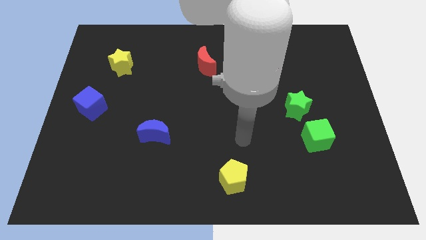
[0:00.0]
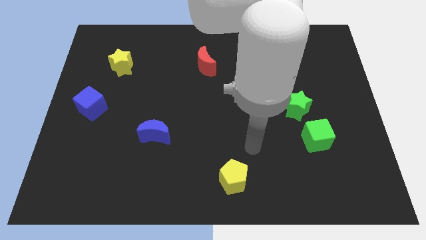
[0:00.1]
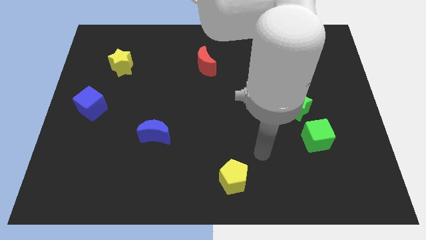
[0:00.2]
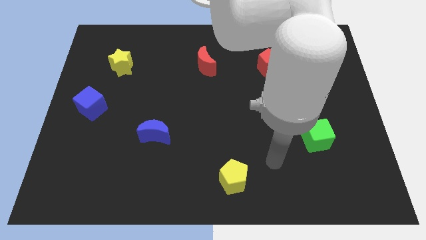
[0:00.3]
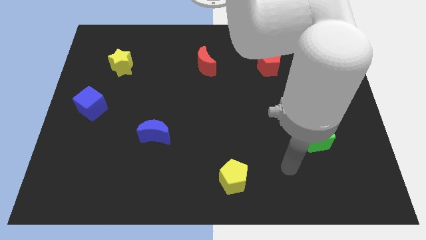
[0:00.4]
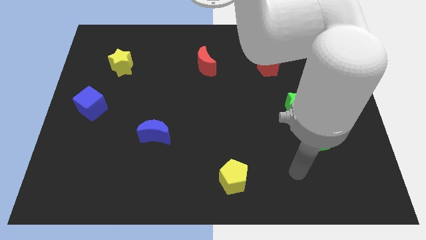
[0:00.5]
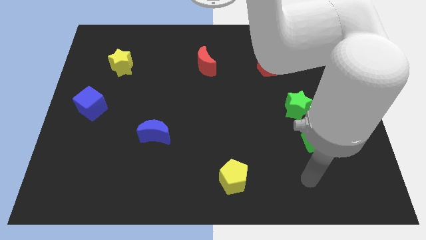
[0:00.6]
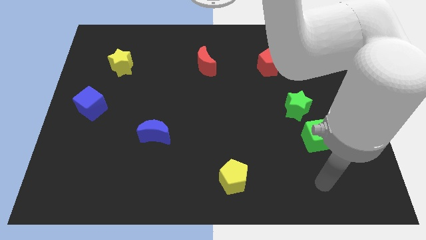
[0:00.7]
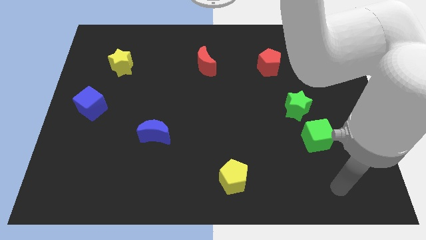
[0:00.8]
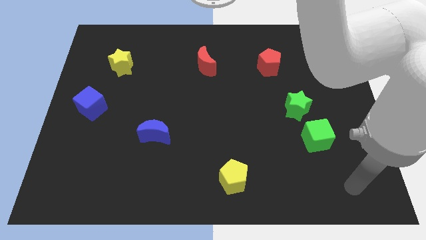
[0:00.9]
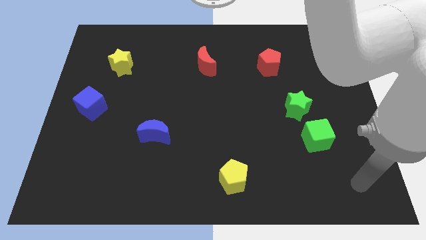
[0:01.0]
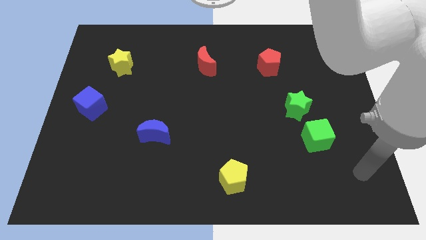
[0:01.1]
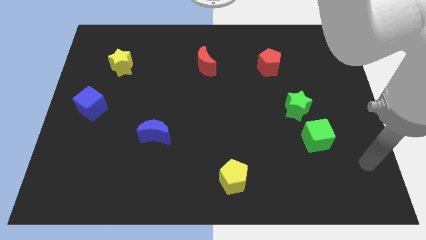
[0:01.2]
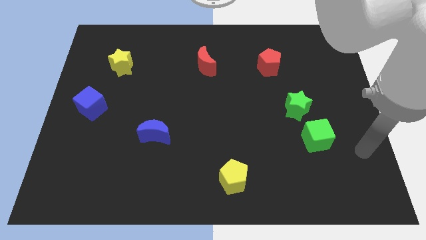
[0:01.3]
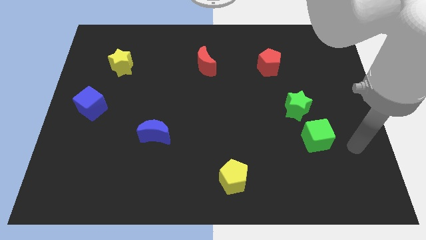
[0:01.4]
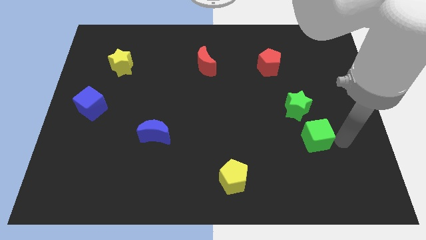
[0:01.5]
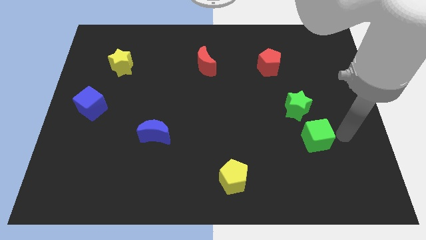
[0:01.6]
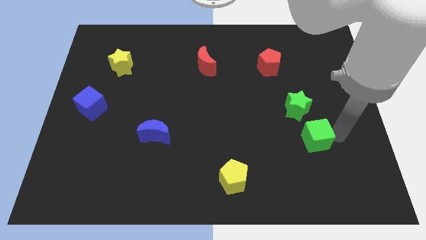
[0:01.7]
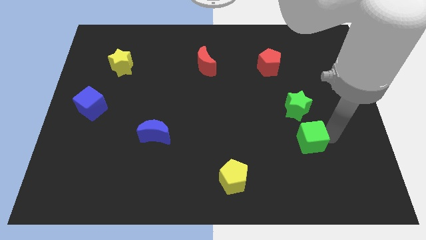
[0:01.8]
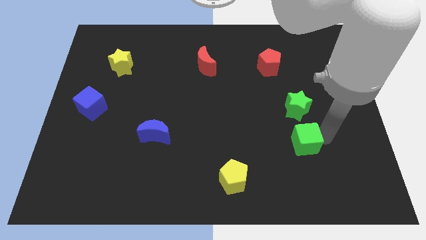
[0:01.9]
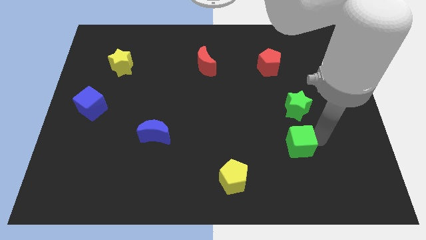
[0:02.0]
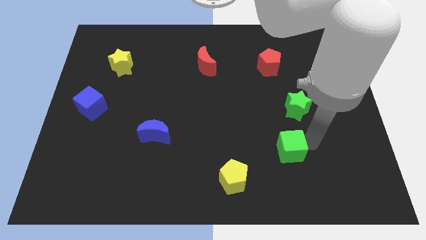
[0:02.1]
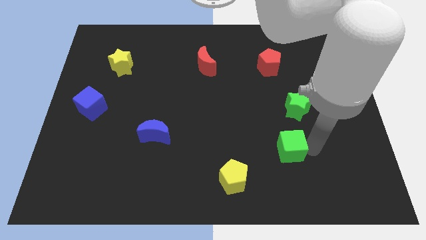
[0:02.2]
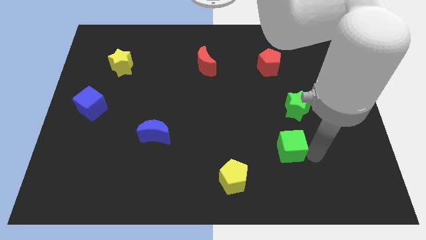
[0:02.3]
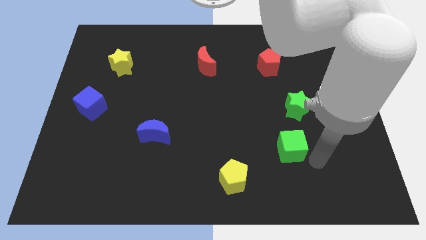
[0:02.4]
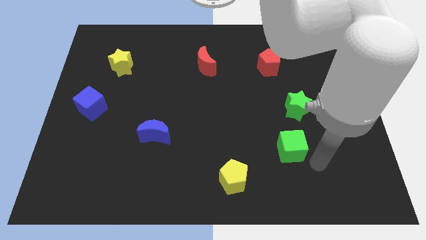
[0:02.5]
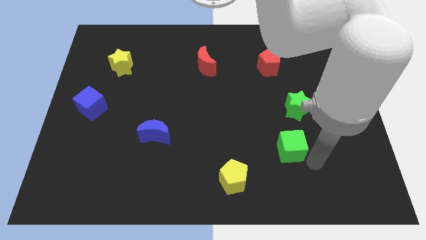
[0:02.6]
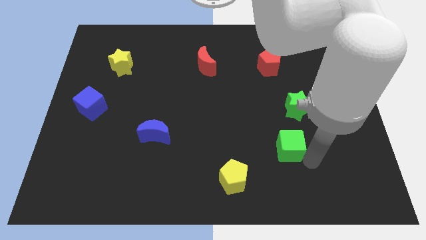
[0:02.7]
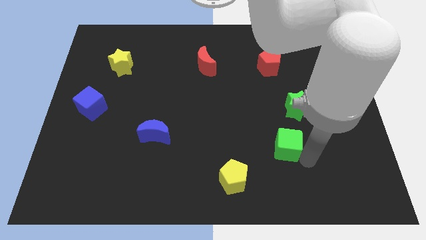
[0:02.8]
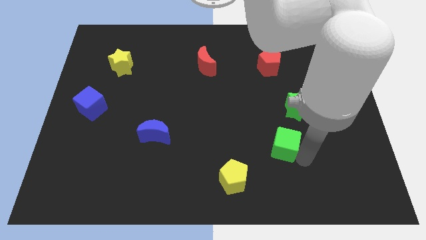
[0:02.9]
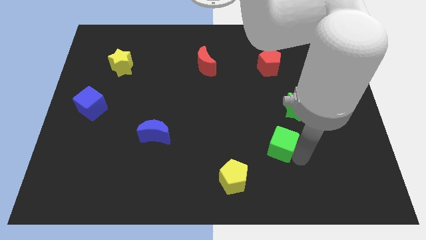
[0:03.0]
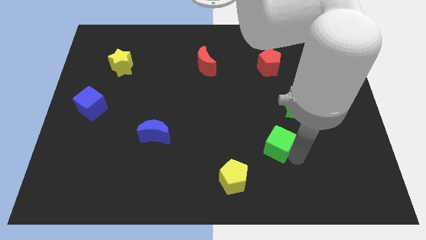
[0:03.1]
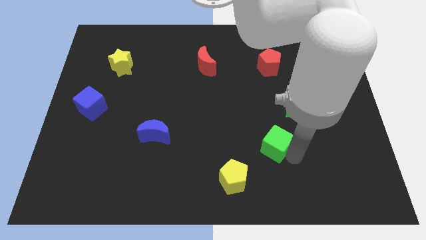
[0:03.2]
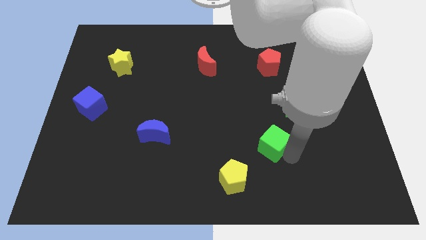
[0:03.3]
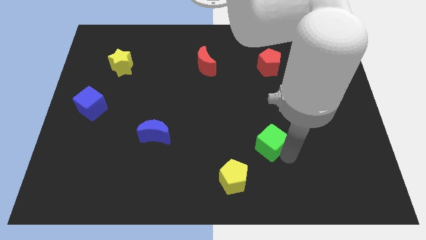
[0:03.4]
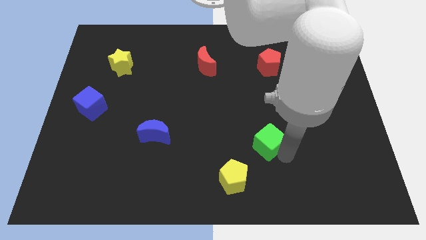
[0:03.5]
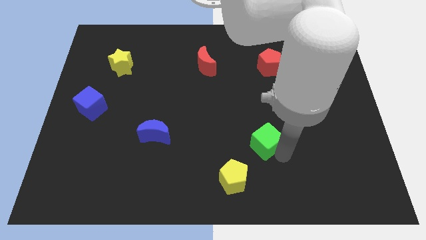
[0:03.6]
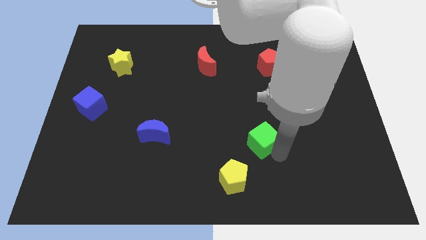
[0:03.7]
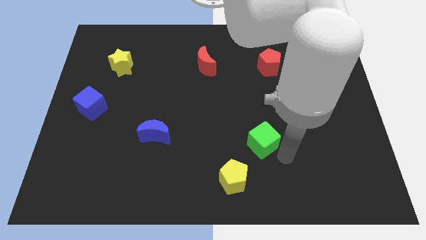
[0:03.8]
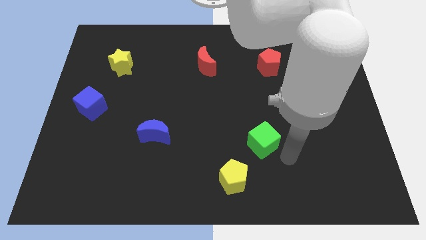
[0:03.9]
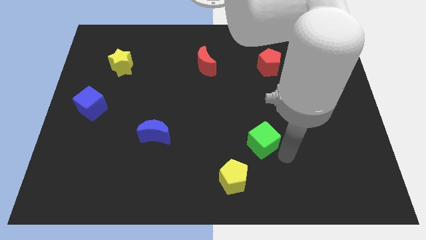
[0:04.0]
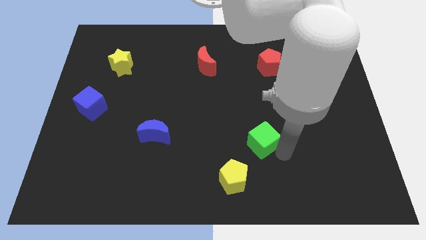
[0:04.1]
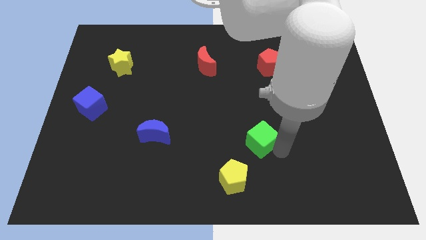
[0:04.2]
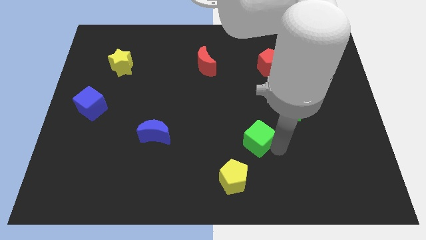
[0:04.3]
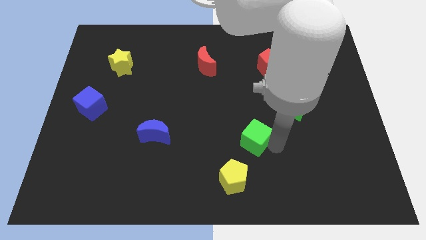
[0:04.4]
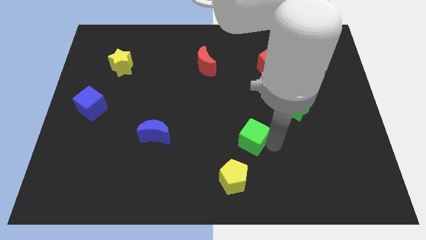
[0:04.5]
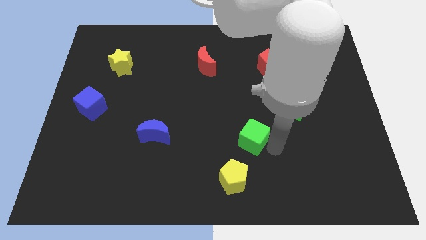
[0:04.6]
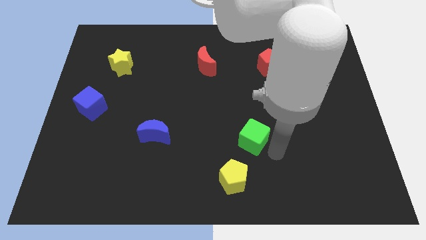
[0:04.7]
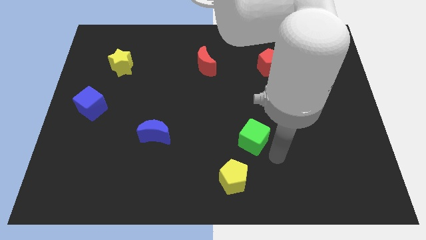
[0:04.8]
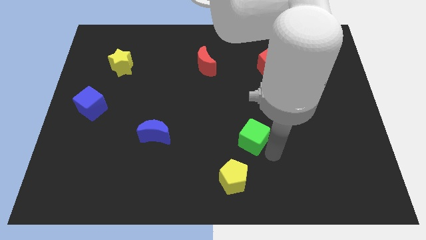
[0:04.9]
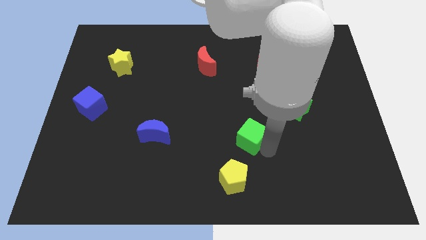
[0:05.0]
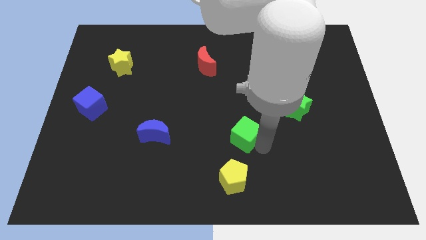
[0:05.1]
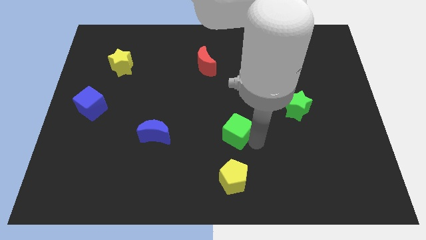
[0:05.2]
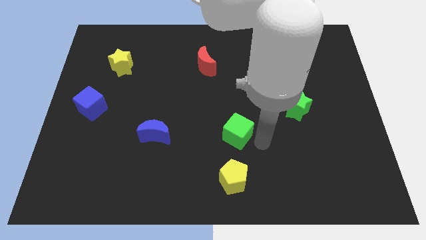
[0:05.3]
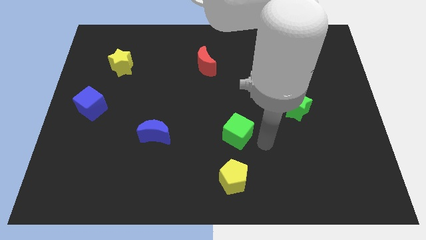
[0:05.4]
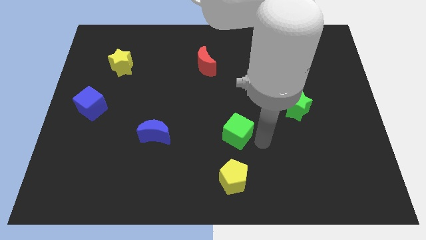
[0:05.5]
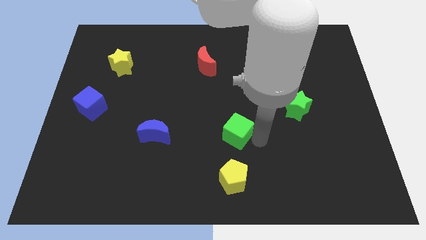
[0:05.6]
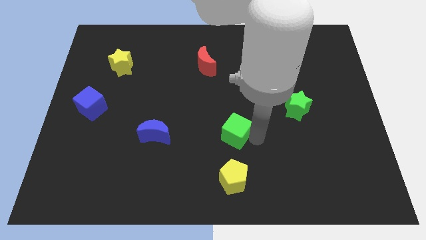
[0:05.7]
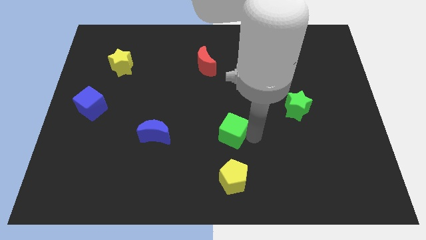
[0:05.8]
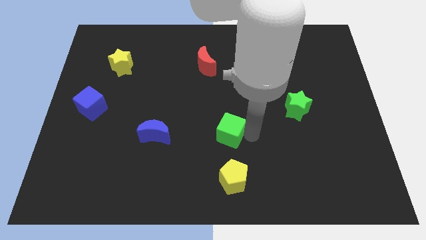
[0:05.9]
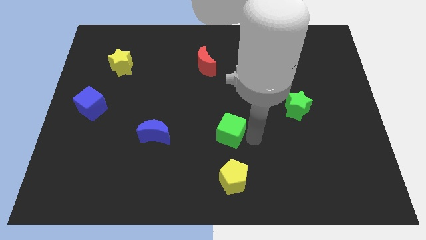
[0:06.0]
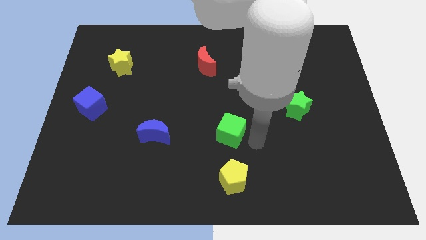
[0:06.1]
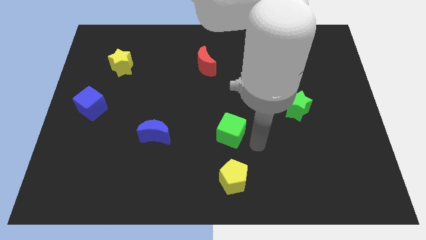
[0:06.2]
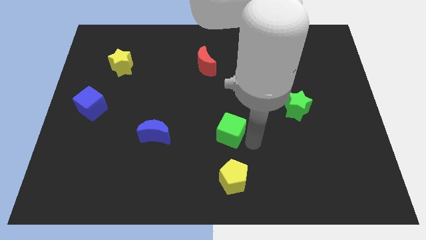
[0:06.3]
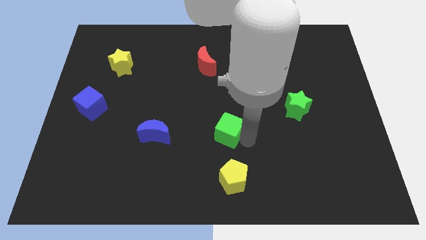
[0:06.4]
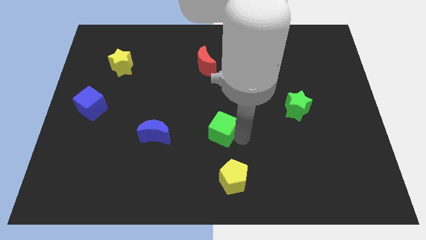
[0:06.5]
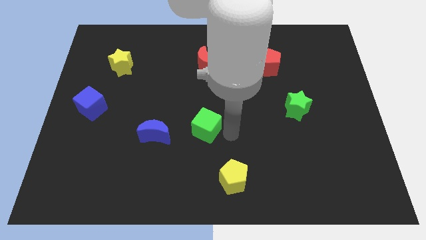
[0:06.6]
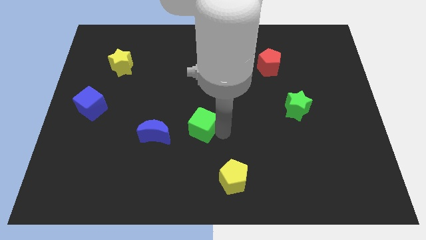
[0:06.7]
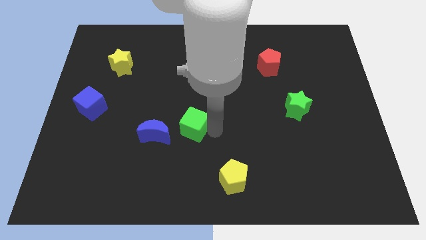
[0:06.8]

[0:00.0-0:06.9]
push the green cube to the top right of the blue moon
